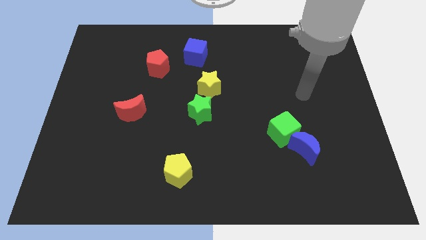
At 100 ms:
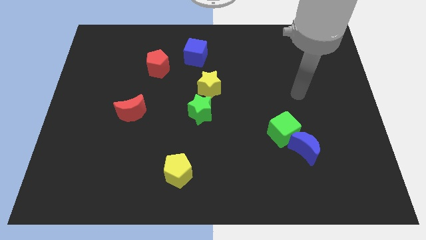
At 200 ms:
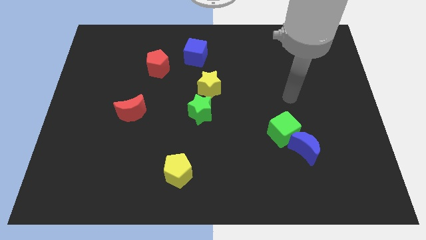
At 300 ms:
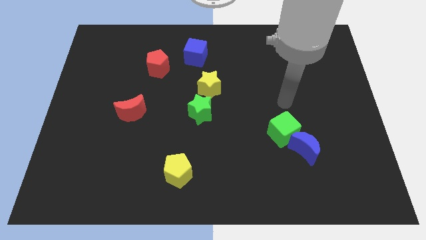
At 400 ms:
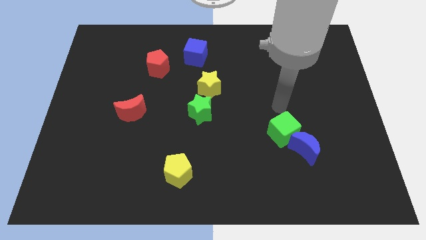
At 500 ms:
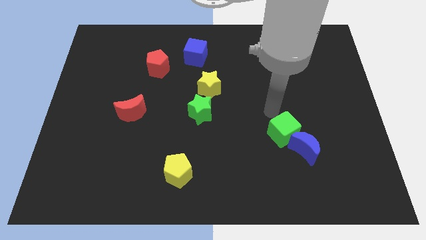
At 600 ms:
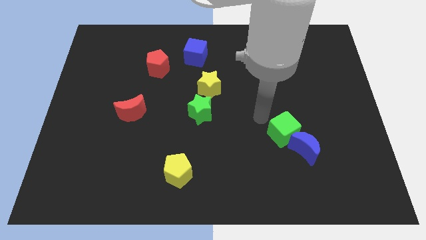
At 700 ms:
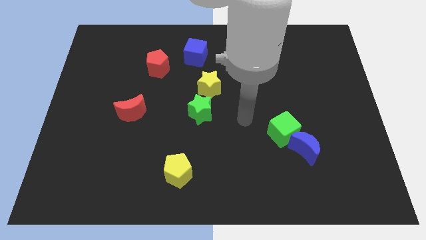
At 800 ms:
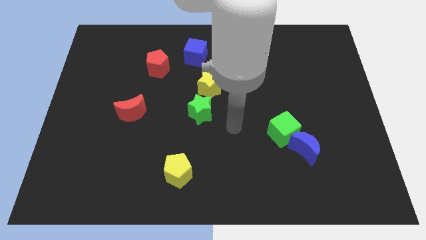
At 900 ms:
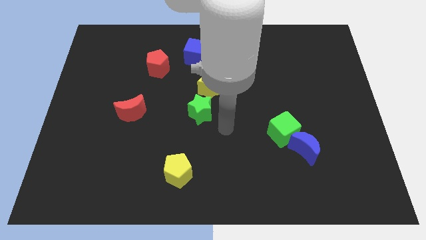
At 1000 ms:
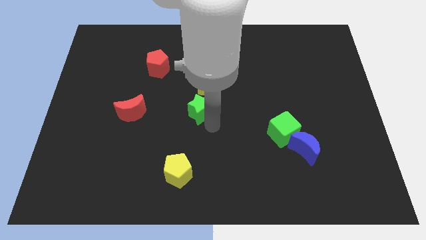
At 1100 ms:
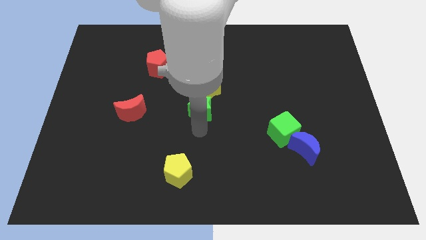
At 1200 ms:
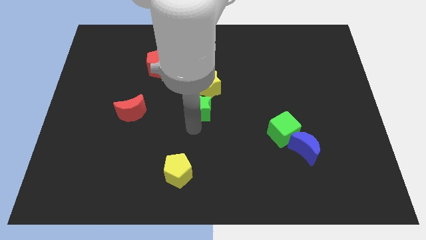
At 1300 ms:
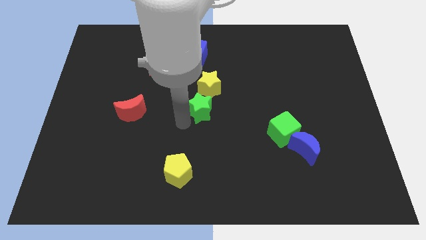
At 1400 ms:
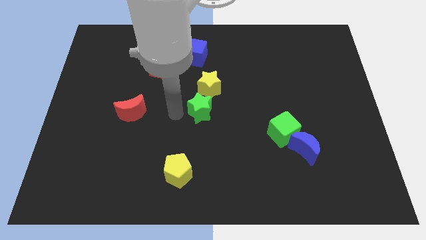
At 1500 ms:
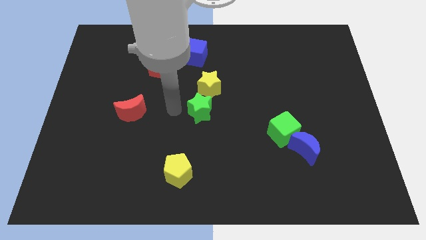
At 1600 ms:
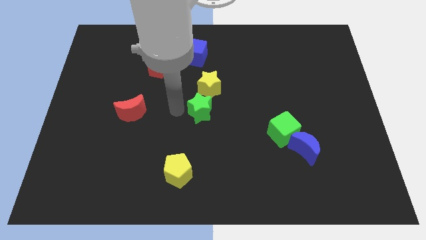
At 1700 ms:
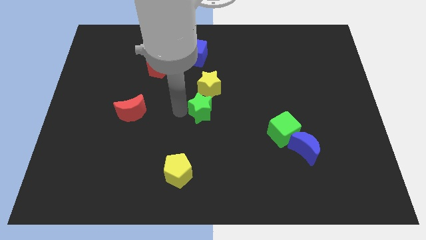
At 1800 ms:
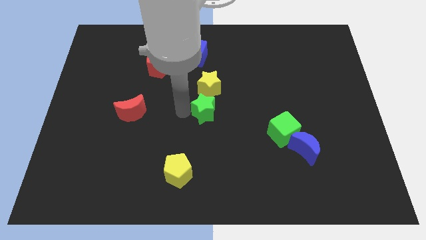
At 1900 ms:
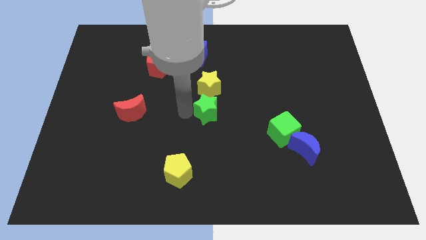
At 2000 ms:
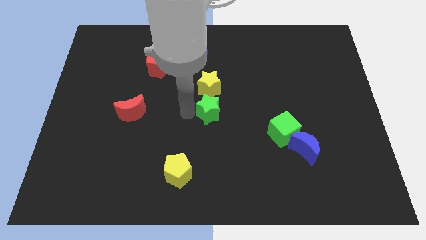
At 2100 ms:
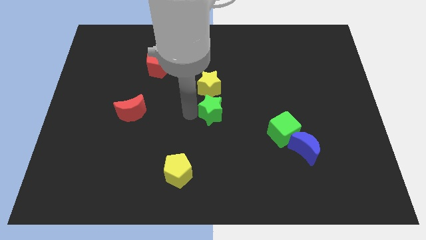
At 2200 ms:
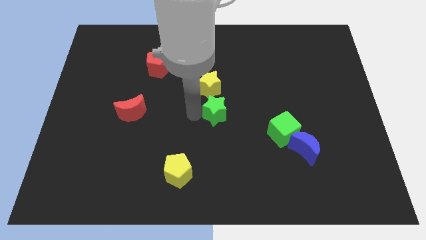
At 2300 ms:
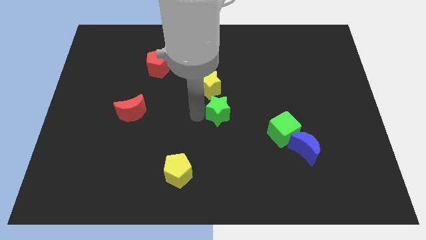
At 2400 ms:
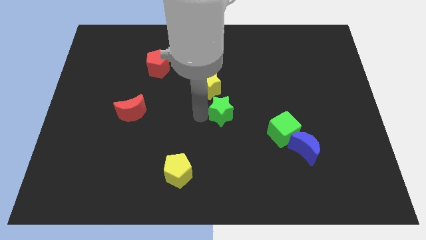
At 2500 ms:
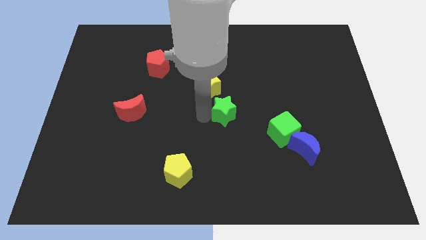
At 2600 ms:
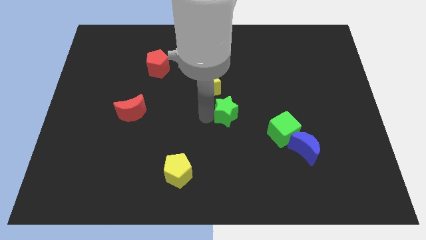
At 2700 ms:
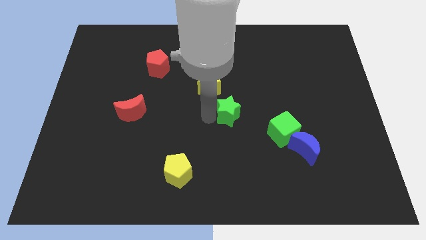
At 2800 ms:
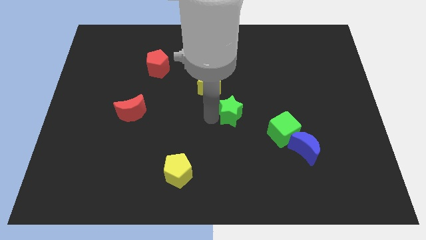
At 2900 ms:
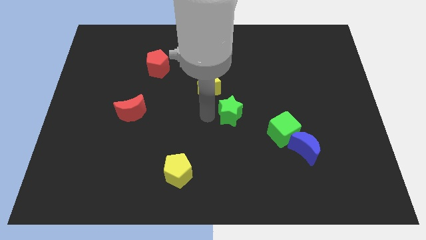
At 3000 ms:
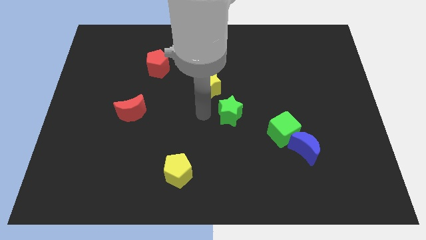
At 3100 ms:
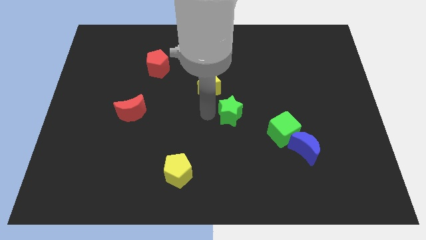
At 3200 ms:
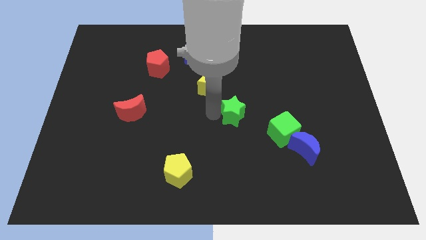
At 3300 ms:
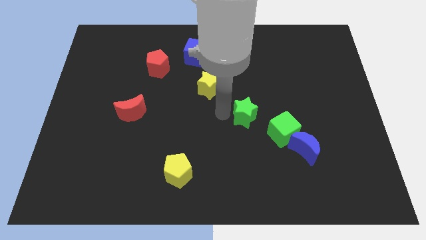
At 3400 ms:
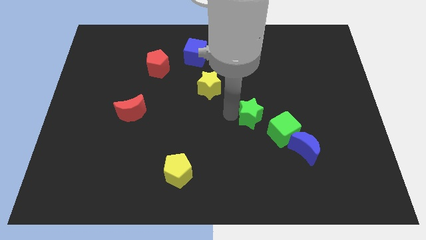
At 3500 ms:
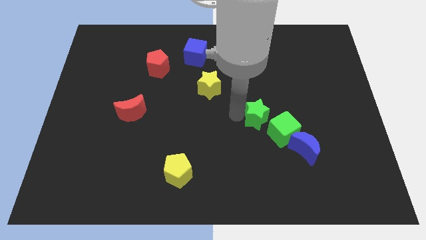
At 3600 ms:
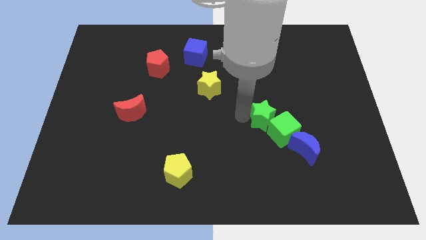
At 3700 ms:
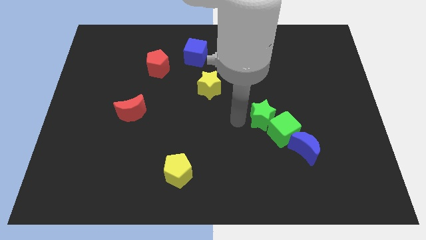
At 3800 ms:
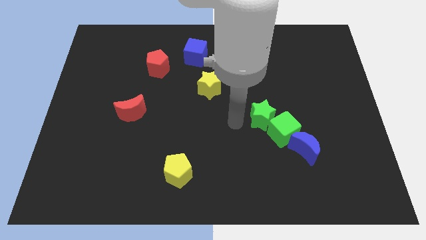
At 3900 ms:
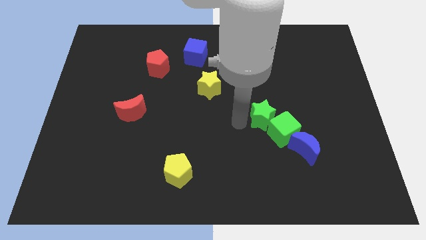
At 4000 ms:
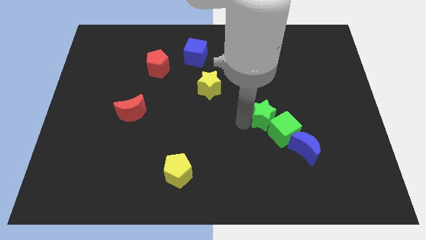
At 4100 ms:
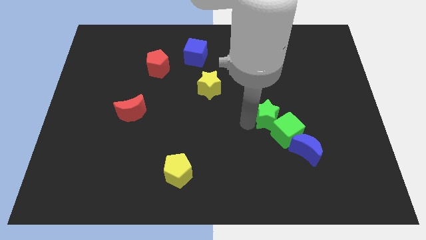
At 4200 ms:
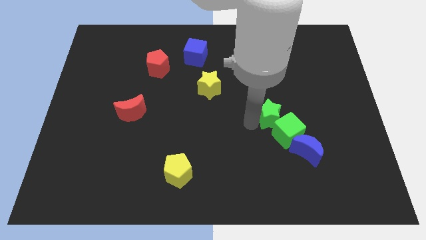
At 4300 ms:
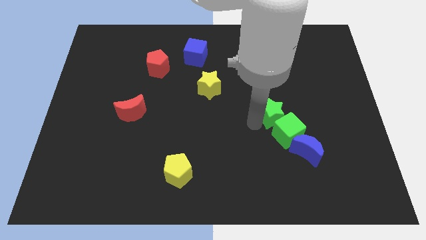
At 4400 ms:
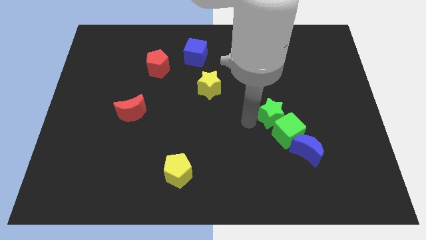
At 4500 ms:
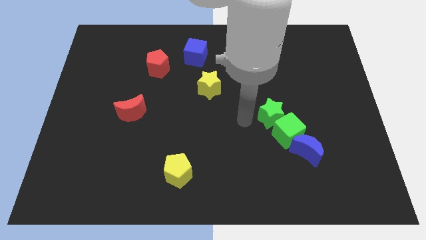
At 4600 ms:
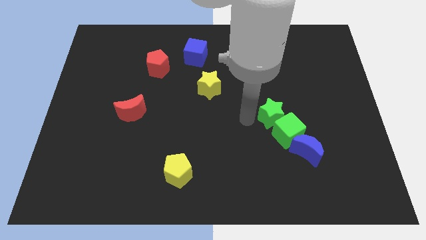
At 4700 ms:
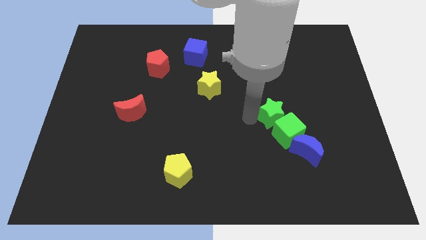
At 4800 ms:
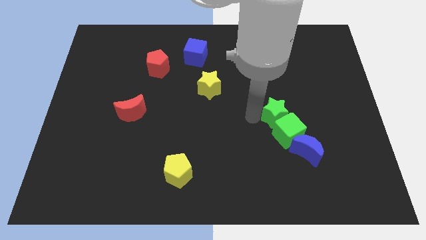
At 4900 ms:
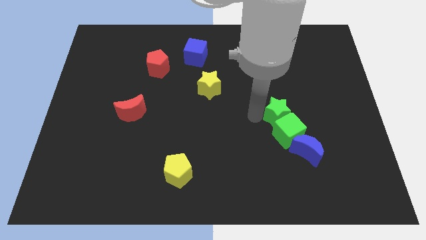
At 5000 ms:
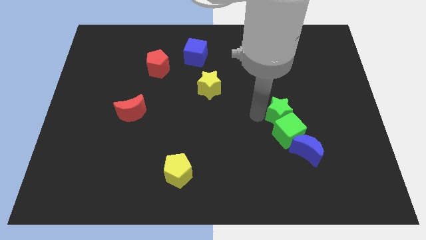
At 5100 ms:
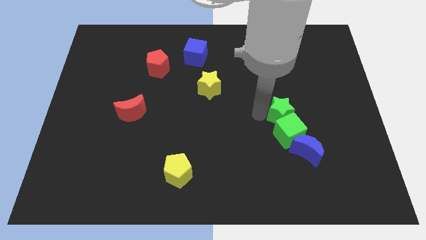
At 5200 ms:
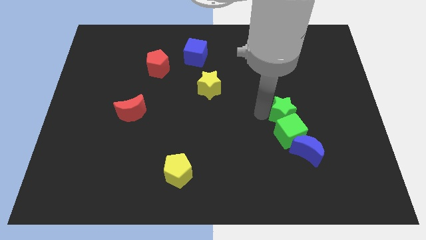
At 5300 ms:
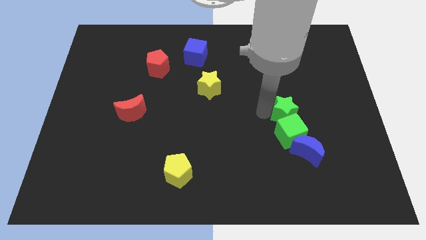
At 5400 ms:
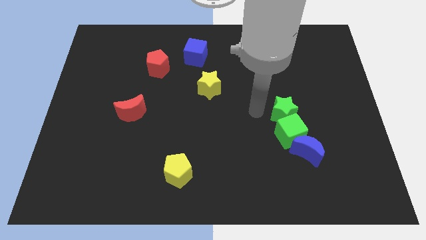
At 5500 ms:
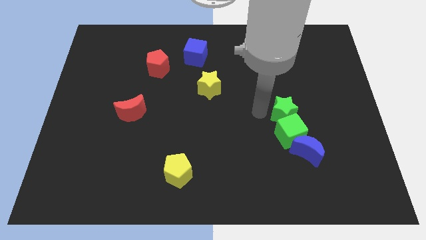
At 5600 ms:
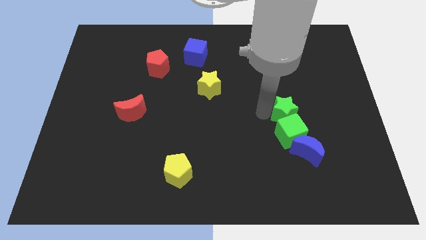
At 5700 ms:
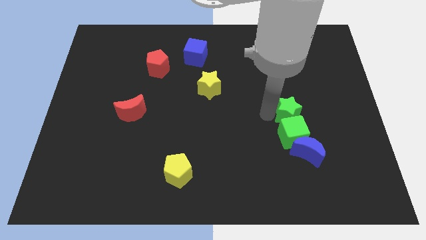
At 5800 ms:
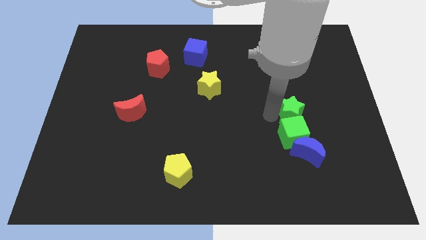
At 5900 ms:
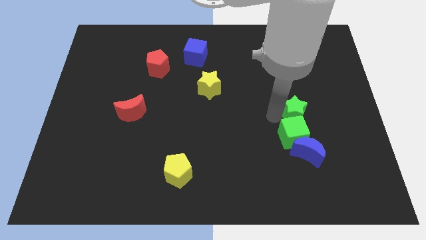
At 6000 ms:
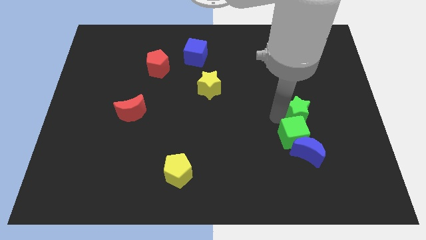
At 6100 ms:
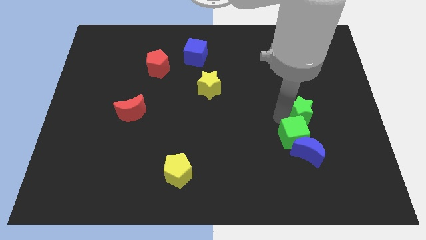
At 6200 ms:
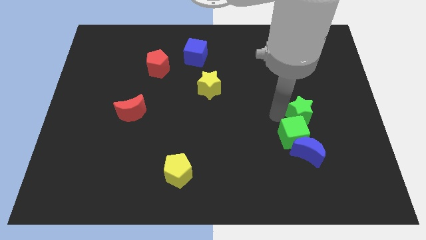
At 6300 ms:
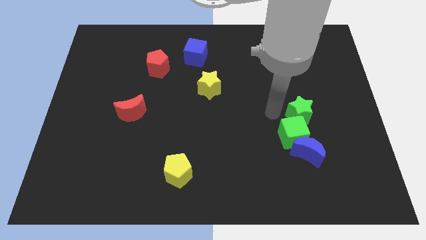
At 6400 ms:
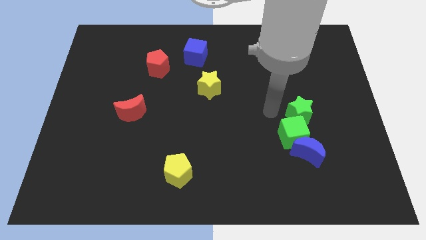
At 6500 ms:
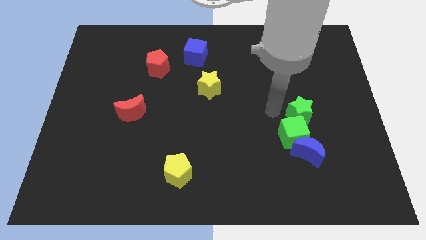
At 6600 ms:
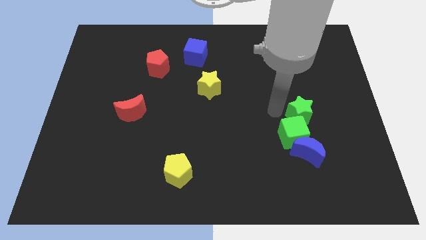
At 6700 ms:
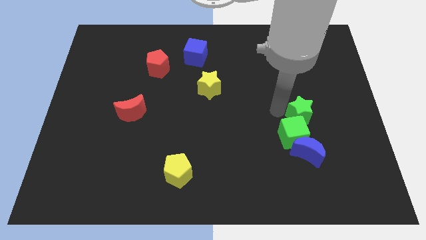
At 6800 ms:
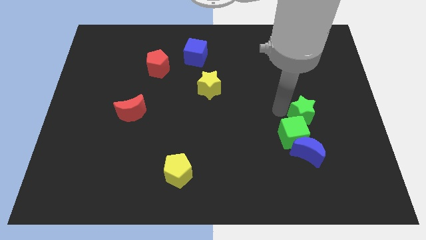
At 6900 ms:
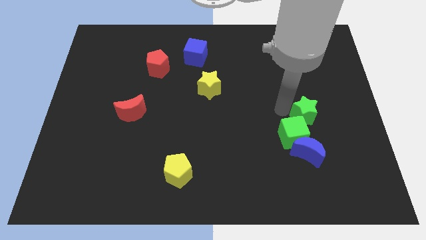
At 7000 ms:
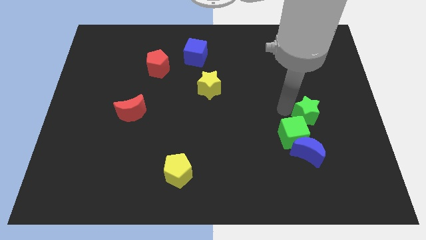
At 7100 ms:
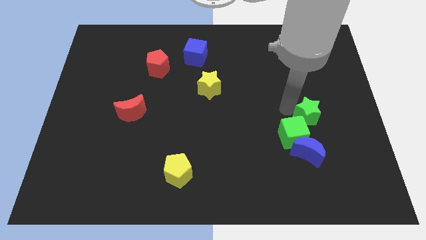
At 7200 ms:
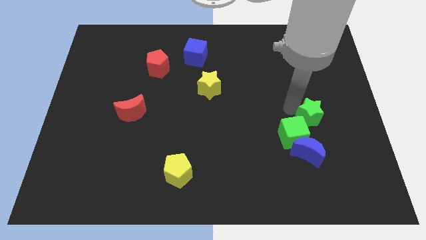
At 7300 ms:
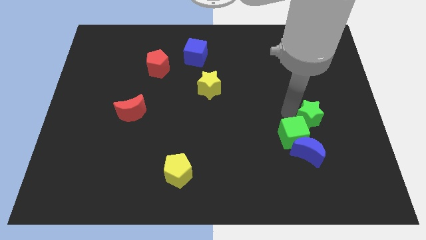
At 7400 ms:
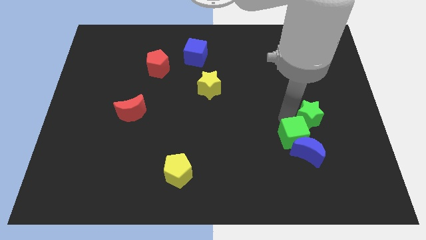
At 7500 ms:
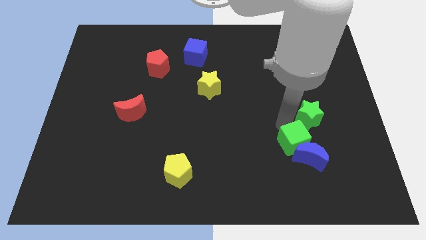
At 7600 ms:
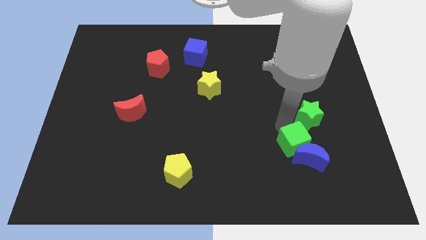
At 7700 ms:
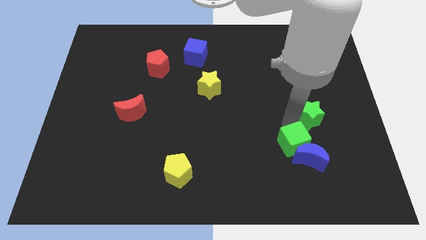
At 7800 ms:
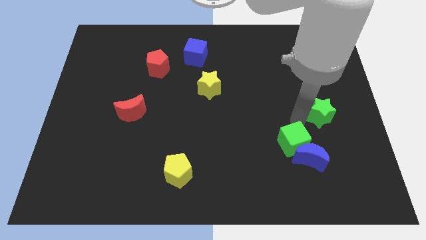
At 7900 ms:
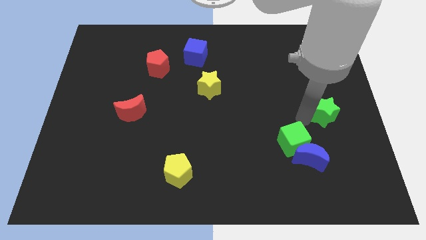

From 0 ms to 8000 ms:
slide the green star to the right side of the board
